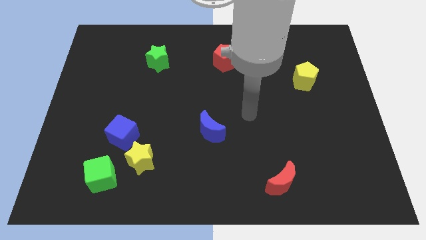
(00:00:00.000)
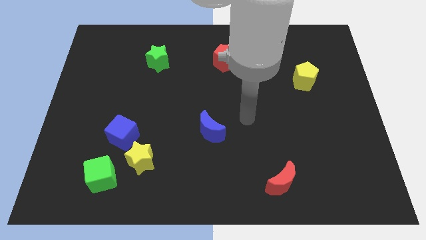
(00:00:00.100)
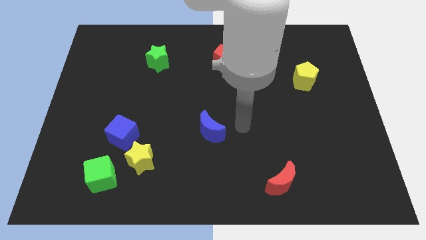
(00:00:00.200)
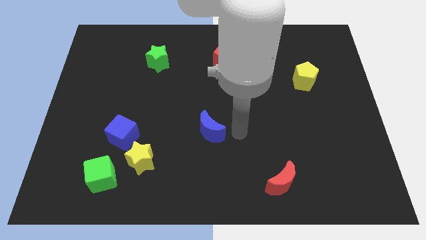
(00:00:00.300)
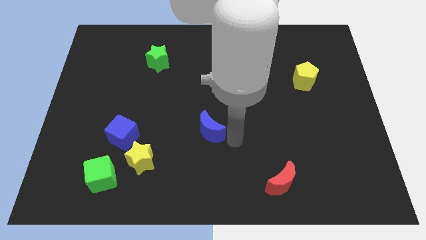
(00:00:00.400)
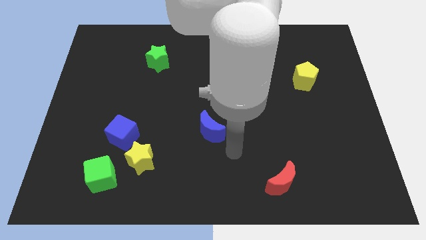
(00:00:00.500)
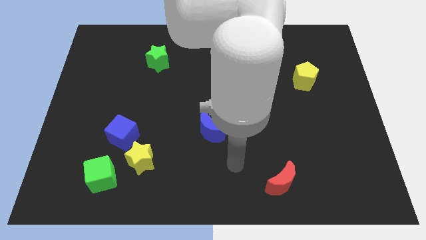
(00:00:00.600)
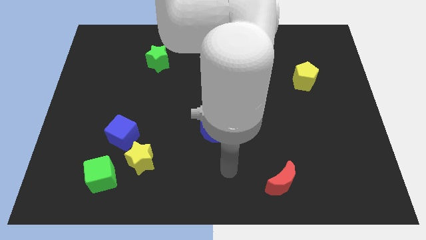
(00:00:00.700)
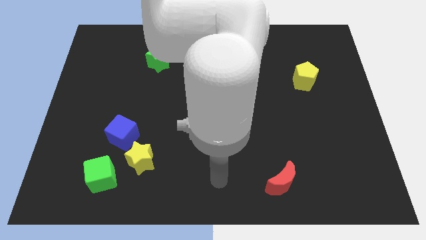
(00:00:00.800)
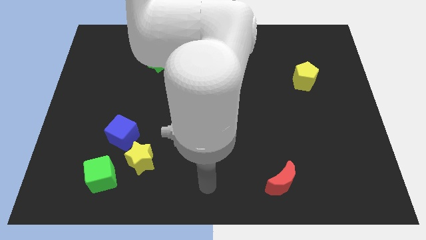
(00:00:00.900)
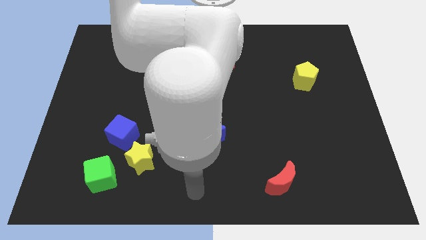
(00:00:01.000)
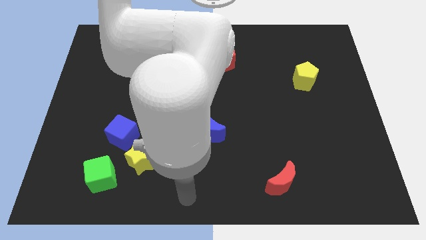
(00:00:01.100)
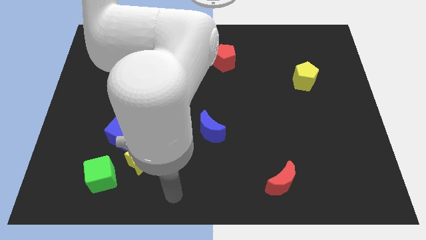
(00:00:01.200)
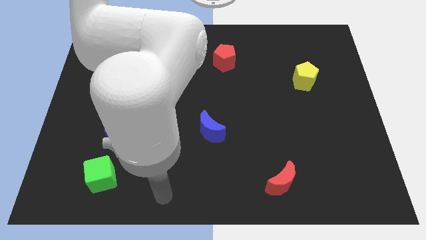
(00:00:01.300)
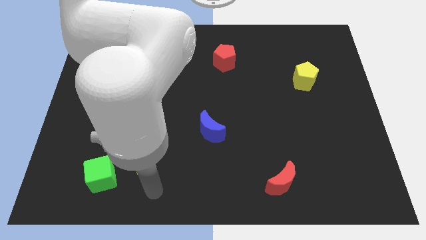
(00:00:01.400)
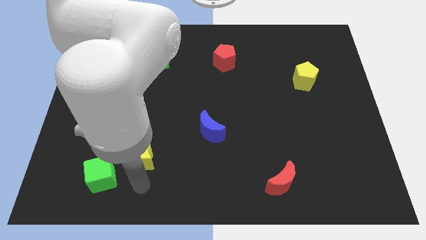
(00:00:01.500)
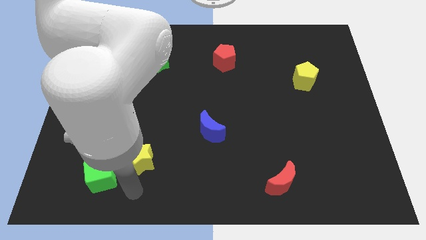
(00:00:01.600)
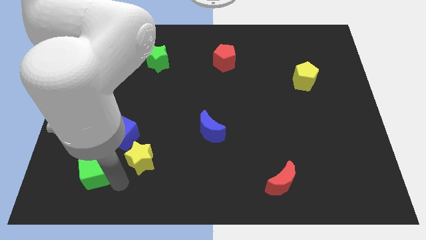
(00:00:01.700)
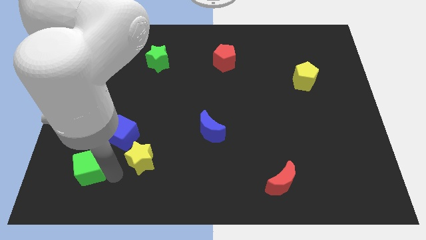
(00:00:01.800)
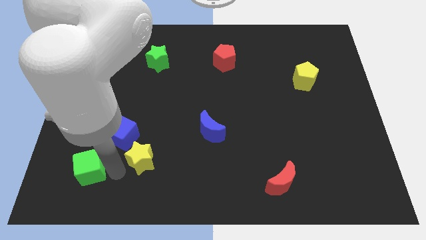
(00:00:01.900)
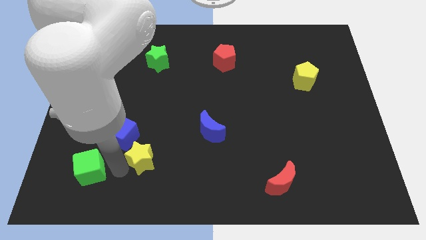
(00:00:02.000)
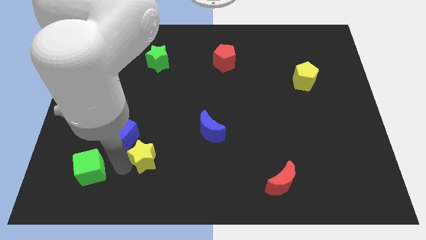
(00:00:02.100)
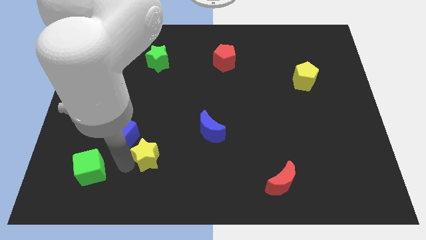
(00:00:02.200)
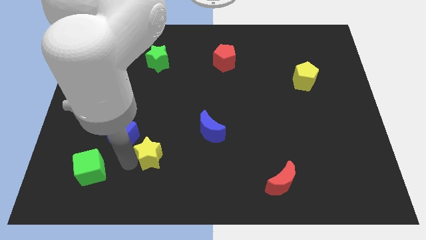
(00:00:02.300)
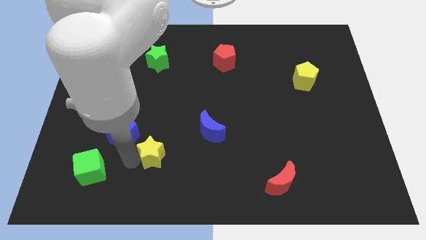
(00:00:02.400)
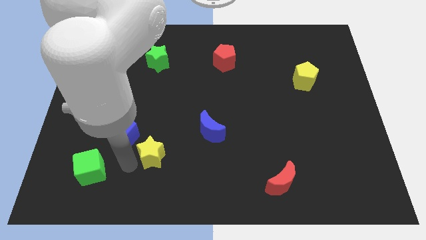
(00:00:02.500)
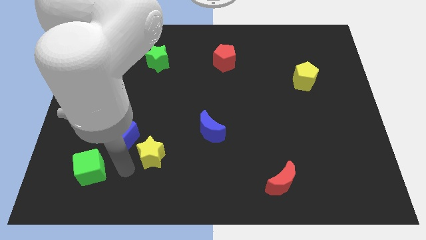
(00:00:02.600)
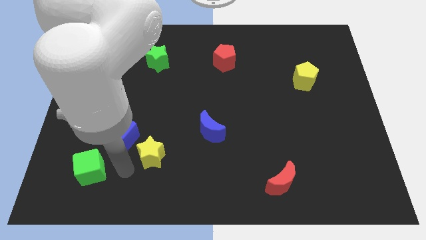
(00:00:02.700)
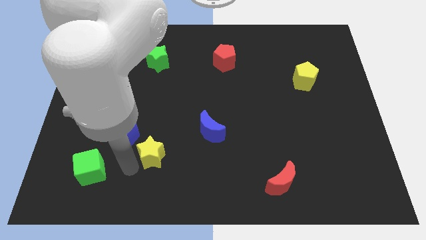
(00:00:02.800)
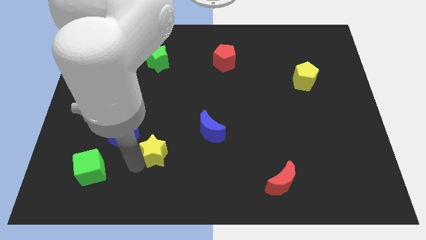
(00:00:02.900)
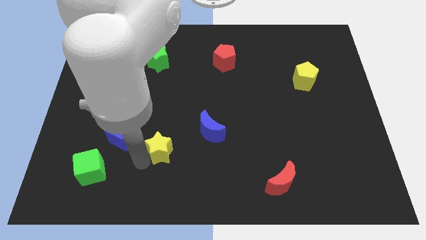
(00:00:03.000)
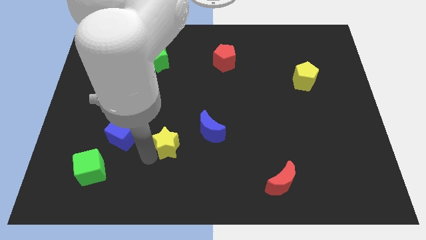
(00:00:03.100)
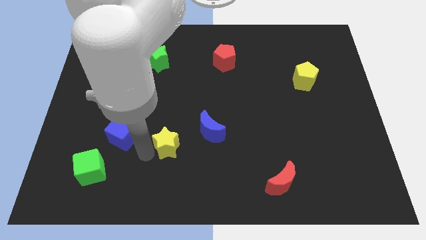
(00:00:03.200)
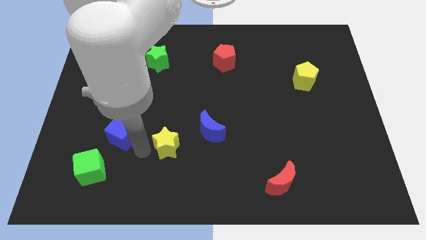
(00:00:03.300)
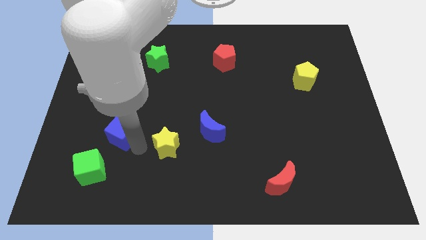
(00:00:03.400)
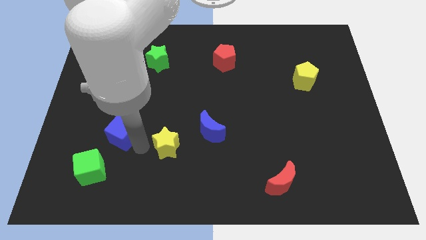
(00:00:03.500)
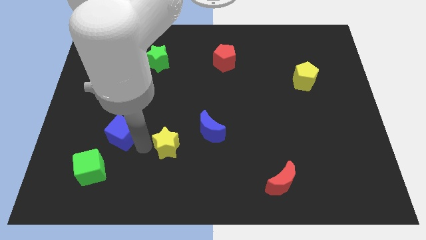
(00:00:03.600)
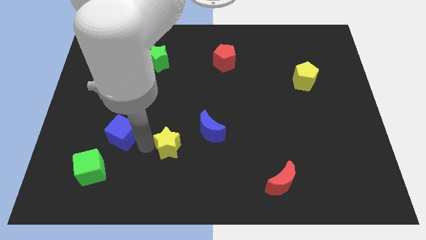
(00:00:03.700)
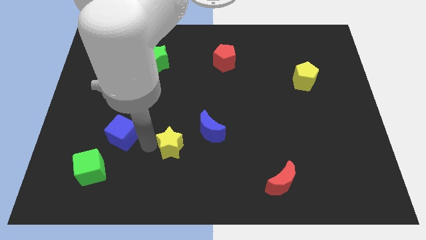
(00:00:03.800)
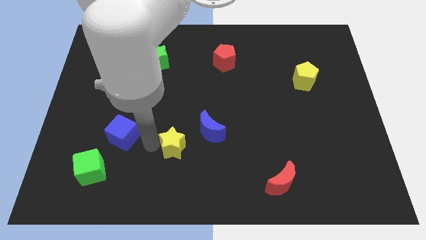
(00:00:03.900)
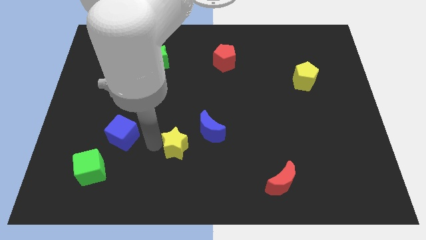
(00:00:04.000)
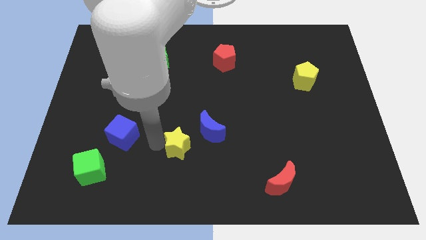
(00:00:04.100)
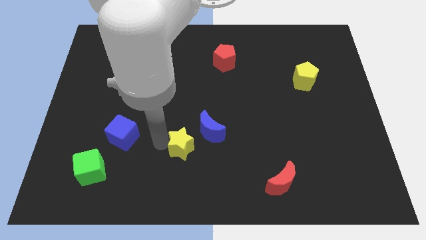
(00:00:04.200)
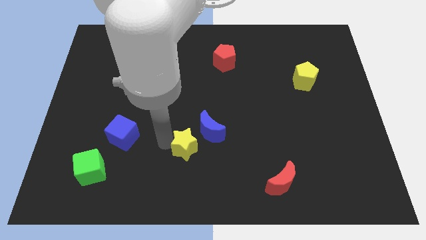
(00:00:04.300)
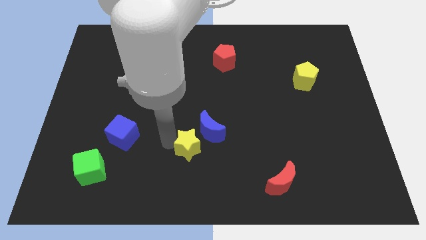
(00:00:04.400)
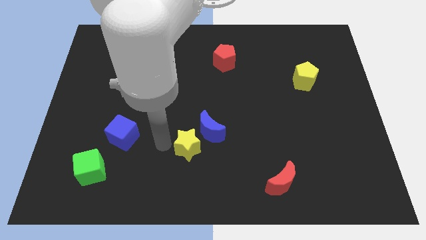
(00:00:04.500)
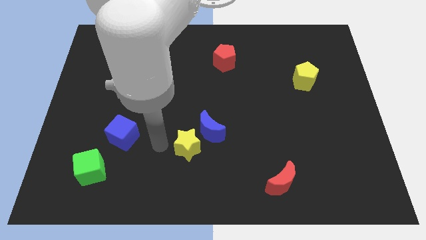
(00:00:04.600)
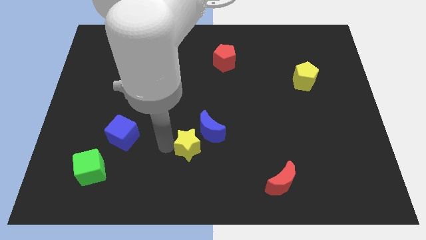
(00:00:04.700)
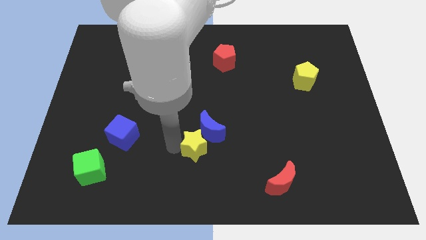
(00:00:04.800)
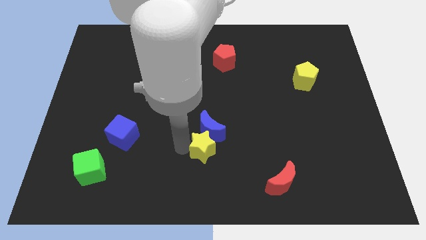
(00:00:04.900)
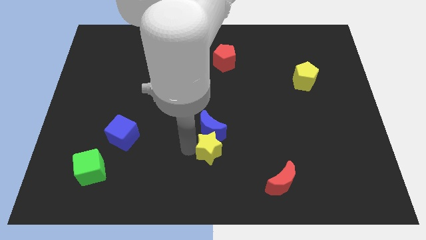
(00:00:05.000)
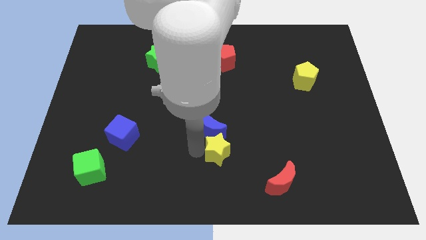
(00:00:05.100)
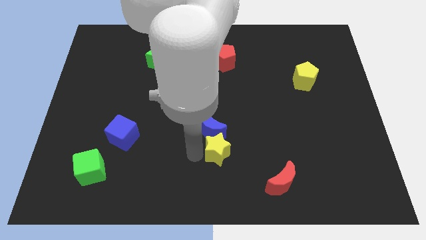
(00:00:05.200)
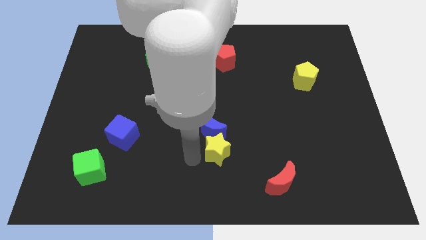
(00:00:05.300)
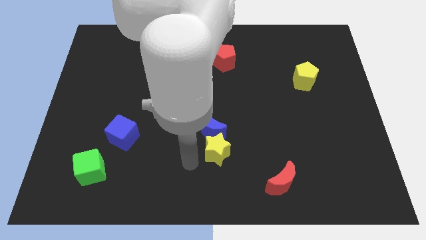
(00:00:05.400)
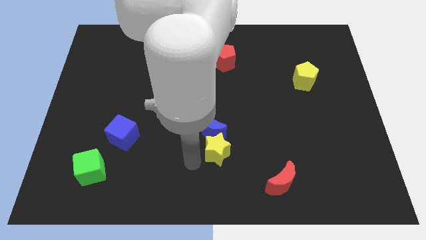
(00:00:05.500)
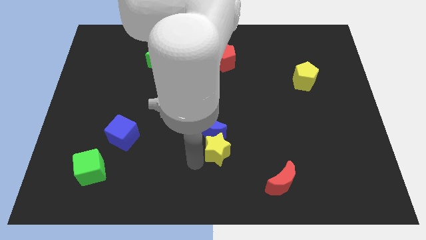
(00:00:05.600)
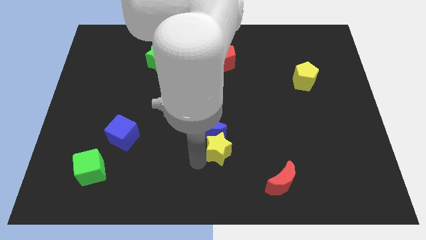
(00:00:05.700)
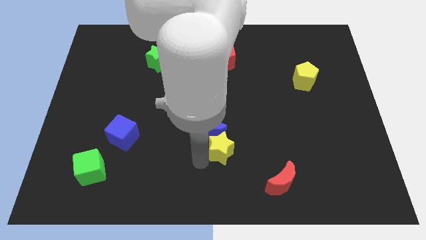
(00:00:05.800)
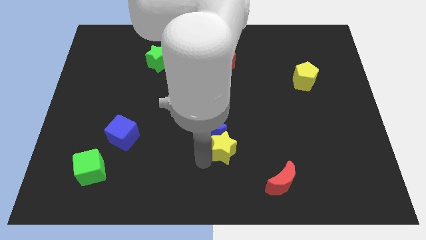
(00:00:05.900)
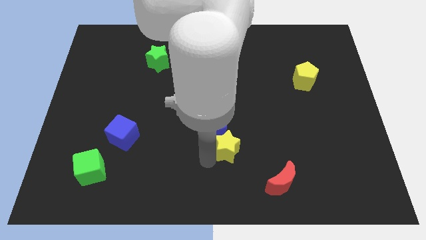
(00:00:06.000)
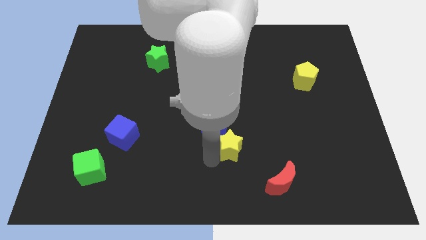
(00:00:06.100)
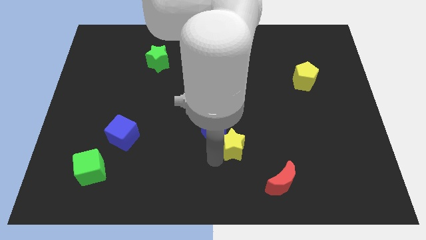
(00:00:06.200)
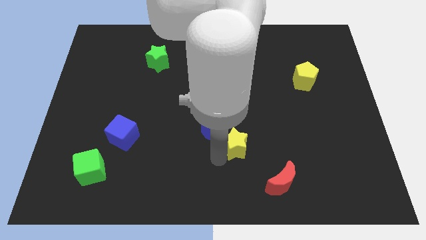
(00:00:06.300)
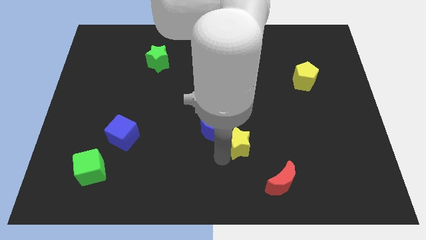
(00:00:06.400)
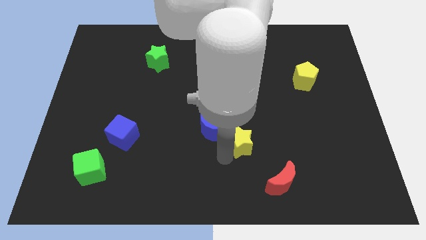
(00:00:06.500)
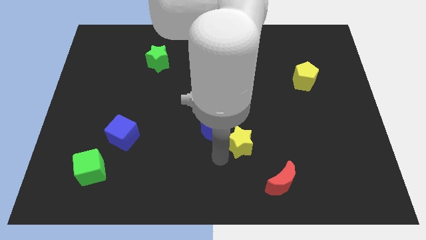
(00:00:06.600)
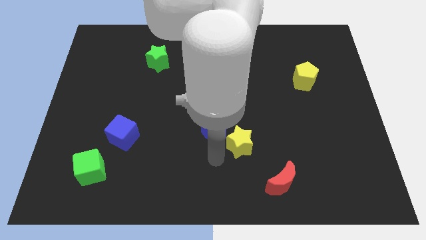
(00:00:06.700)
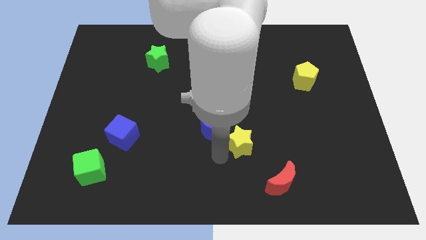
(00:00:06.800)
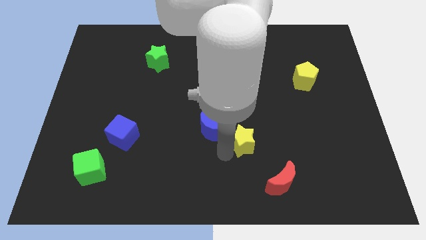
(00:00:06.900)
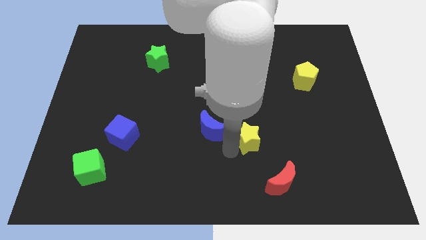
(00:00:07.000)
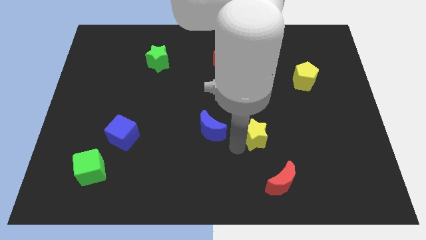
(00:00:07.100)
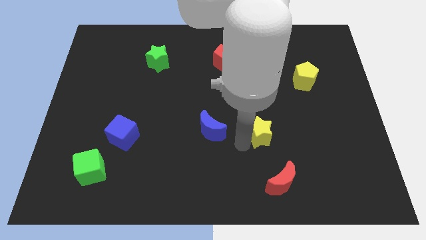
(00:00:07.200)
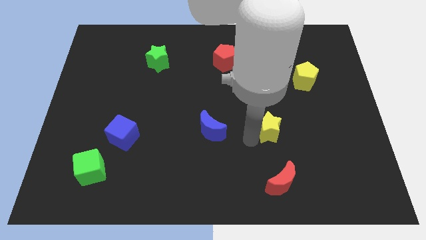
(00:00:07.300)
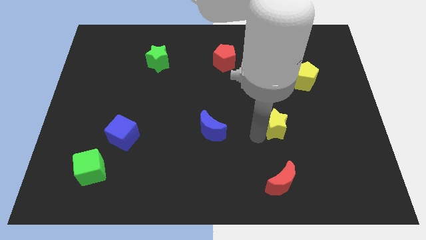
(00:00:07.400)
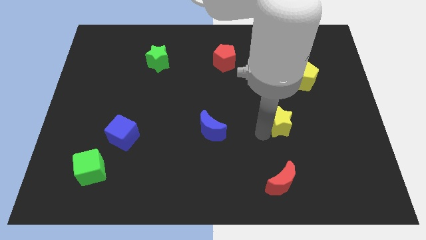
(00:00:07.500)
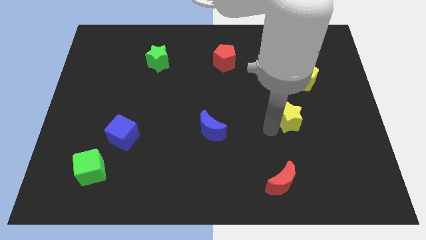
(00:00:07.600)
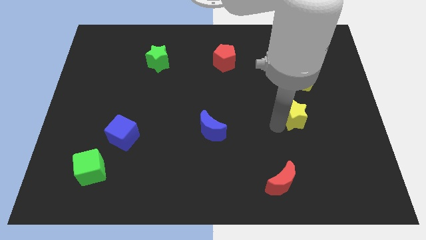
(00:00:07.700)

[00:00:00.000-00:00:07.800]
slide the yellow star to the bottom of the yellow pentagon

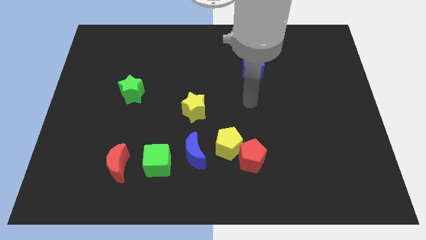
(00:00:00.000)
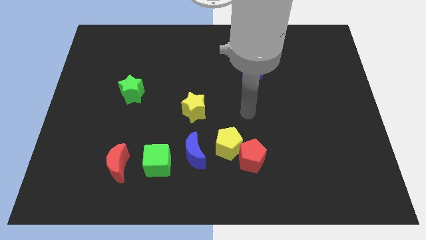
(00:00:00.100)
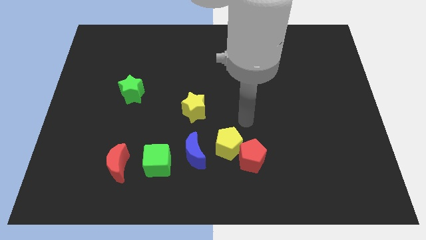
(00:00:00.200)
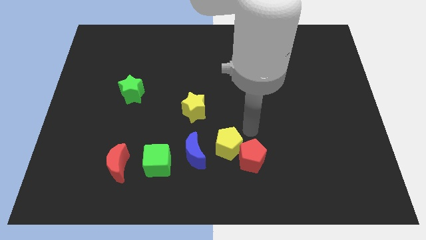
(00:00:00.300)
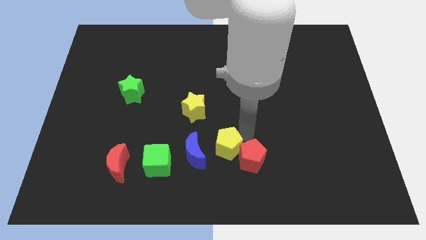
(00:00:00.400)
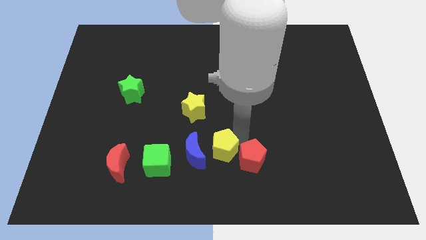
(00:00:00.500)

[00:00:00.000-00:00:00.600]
slide the yellow pentagon to the right side of the green cube
